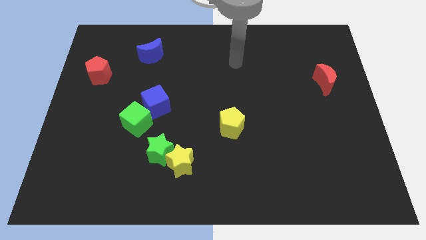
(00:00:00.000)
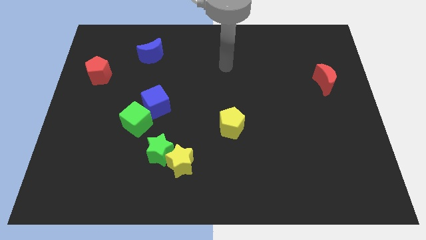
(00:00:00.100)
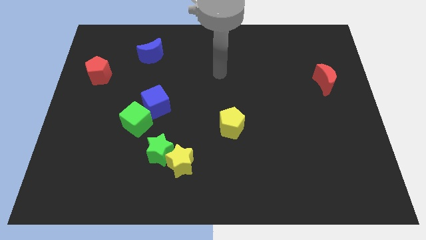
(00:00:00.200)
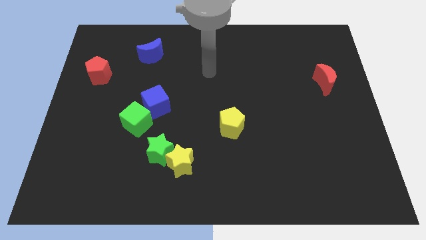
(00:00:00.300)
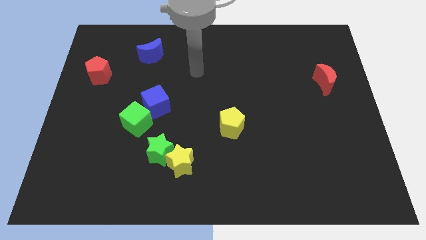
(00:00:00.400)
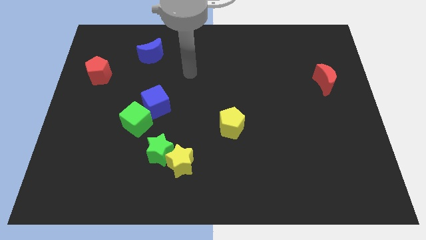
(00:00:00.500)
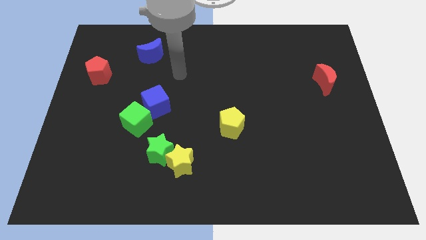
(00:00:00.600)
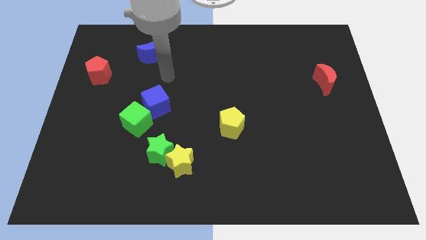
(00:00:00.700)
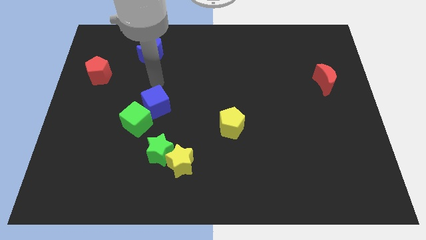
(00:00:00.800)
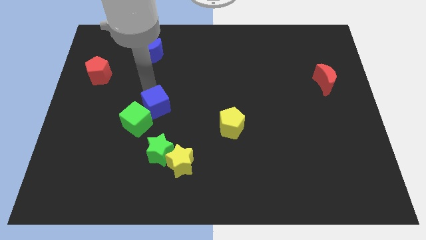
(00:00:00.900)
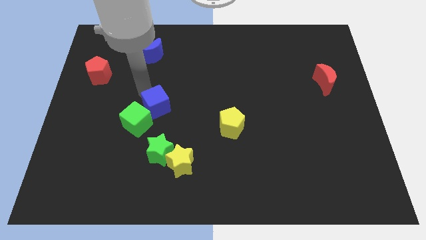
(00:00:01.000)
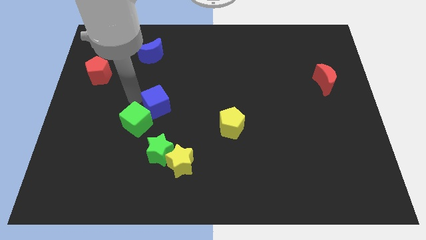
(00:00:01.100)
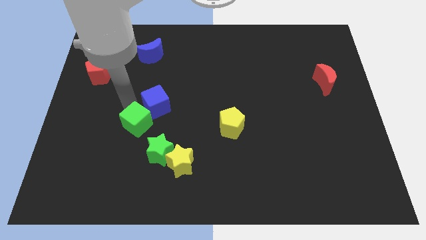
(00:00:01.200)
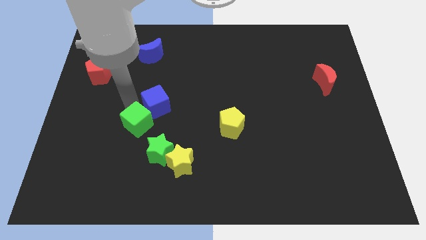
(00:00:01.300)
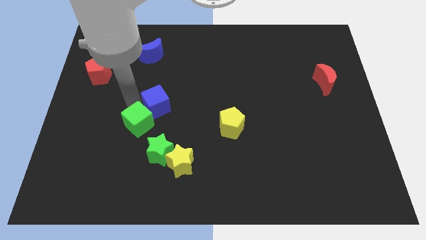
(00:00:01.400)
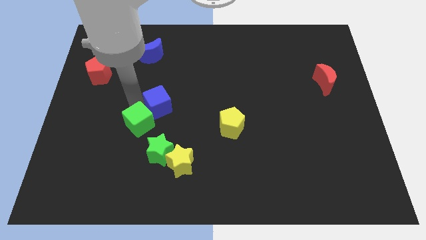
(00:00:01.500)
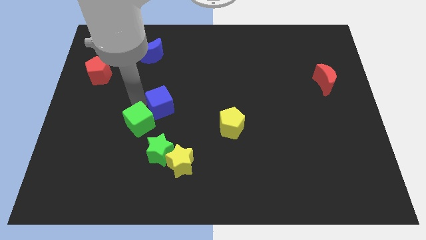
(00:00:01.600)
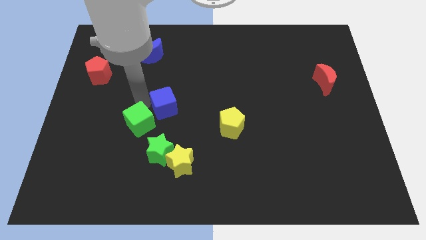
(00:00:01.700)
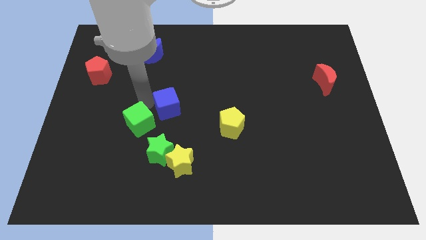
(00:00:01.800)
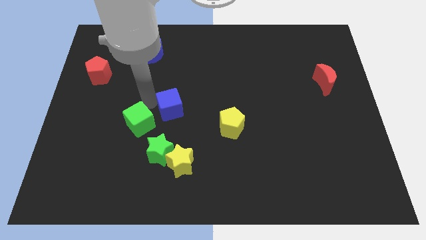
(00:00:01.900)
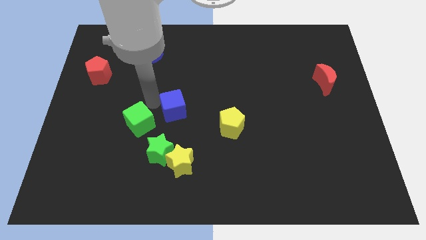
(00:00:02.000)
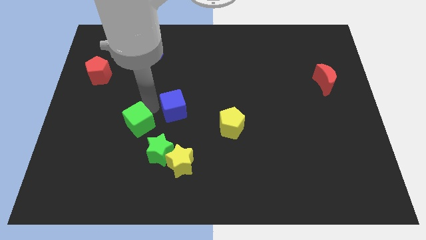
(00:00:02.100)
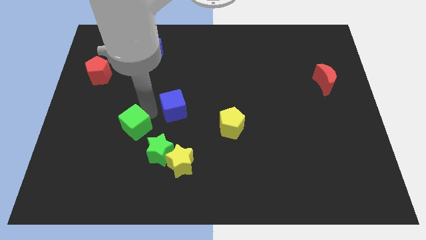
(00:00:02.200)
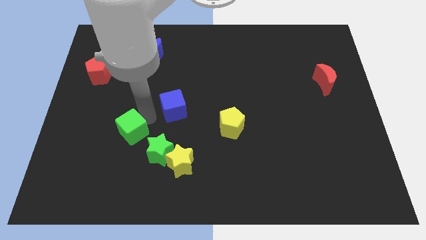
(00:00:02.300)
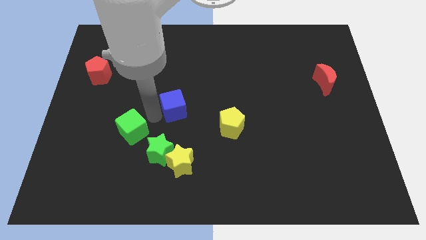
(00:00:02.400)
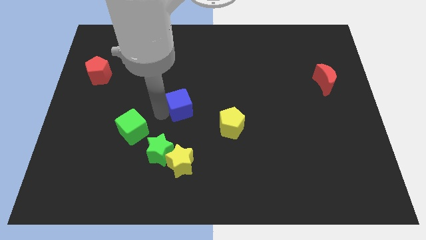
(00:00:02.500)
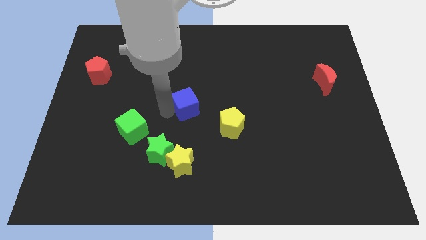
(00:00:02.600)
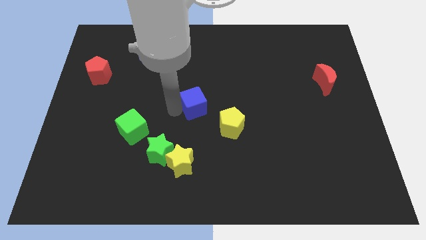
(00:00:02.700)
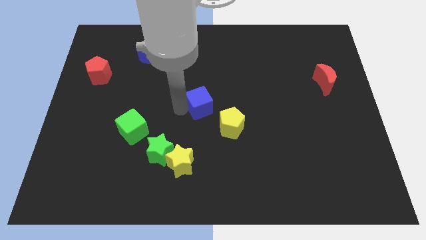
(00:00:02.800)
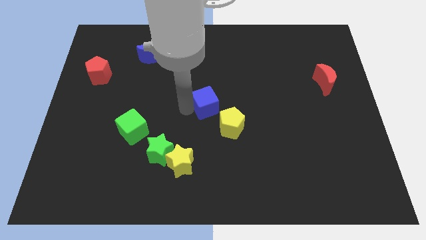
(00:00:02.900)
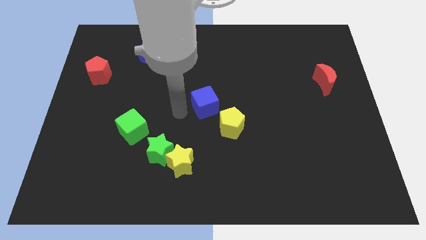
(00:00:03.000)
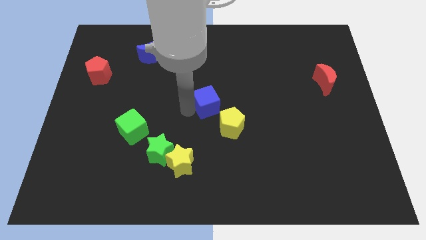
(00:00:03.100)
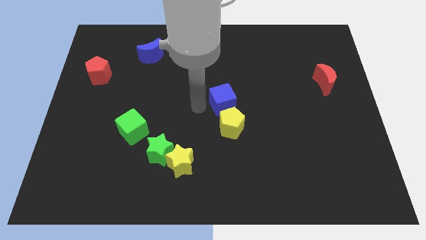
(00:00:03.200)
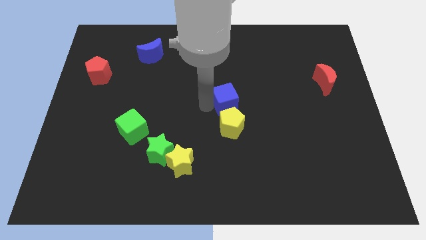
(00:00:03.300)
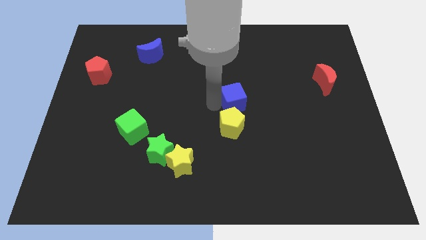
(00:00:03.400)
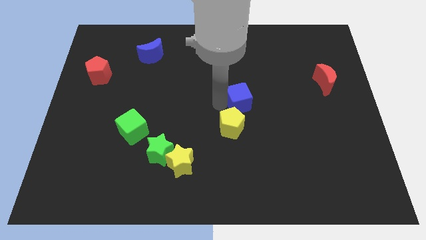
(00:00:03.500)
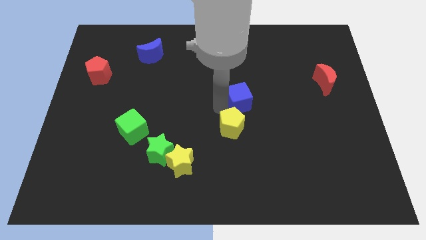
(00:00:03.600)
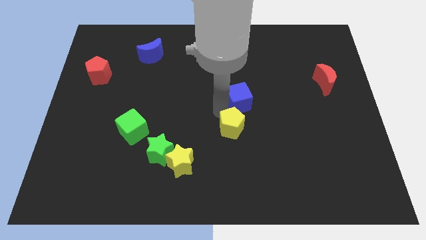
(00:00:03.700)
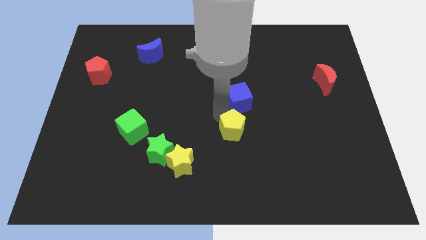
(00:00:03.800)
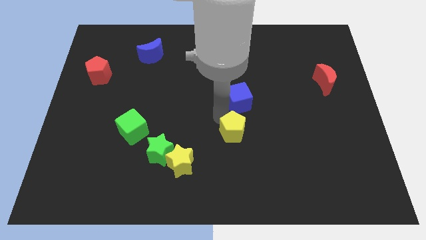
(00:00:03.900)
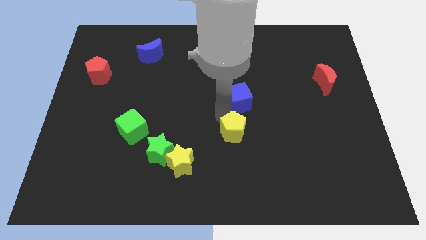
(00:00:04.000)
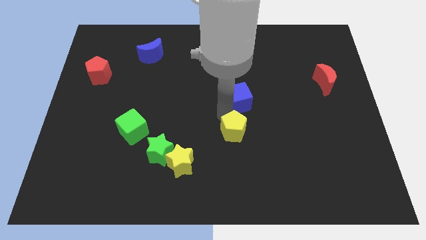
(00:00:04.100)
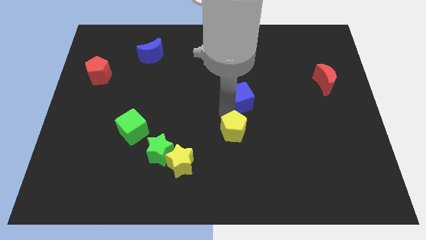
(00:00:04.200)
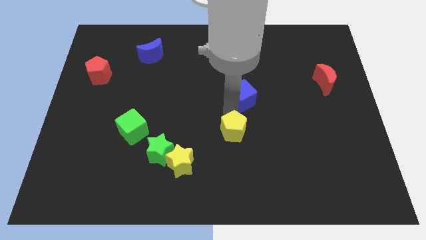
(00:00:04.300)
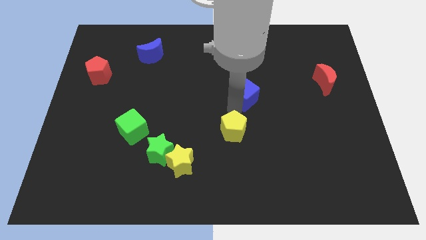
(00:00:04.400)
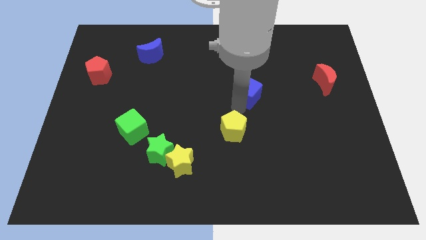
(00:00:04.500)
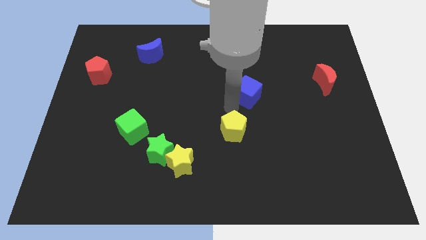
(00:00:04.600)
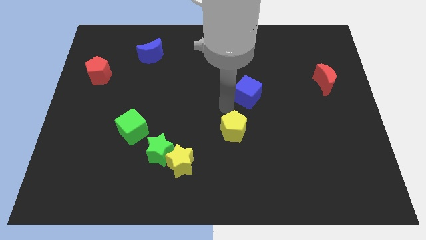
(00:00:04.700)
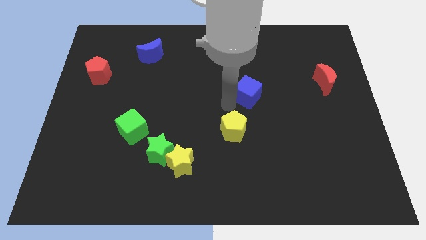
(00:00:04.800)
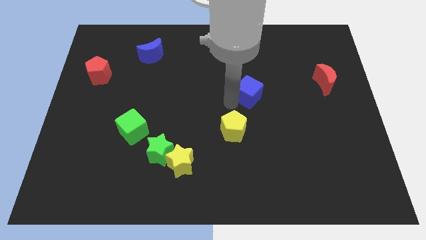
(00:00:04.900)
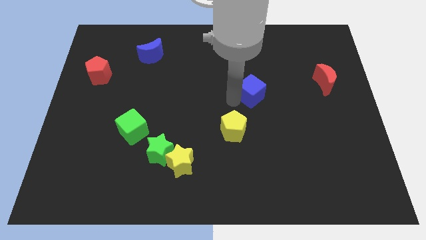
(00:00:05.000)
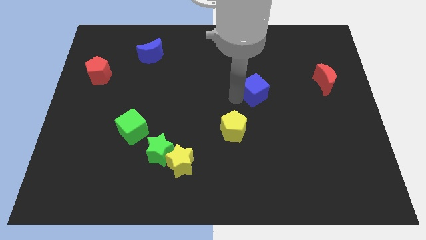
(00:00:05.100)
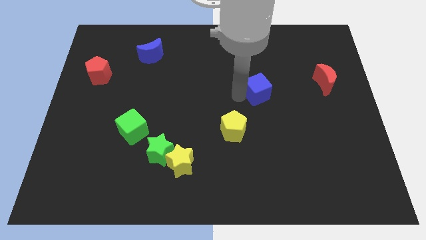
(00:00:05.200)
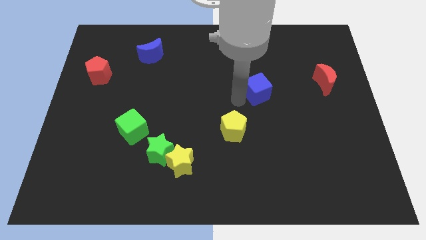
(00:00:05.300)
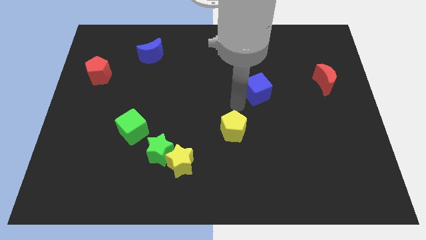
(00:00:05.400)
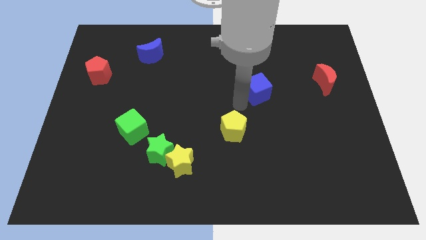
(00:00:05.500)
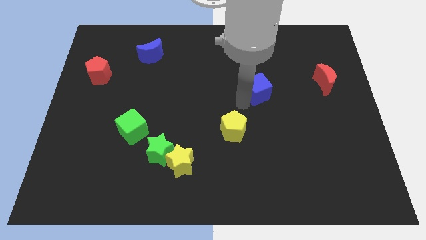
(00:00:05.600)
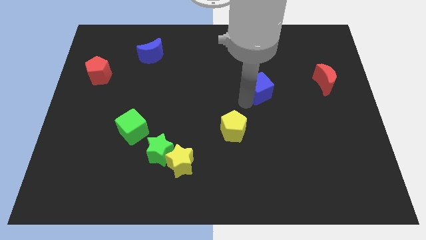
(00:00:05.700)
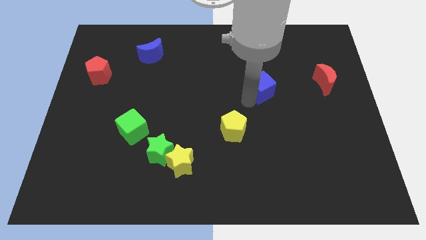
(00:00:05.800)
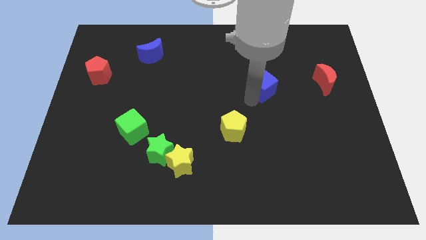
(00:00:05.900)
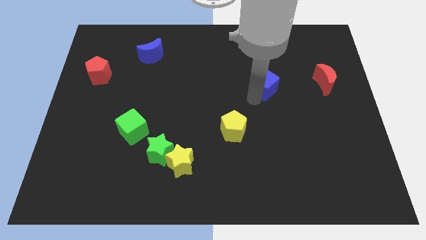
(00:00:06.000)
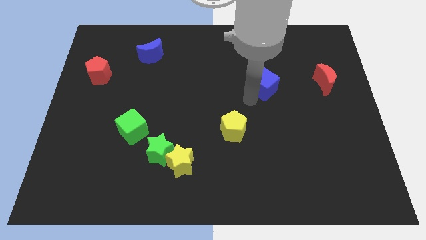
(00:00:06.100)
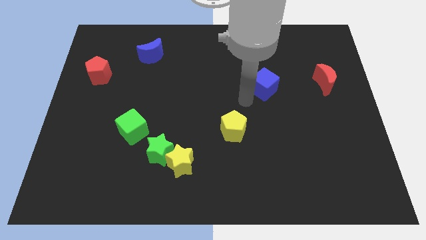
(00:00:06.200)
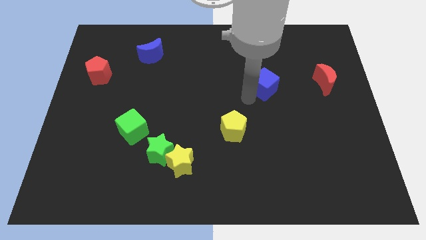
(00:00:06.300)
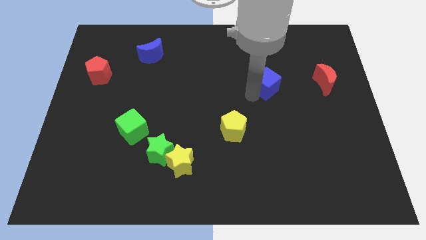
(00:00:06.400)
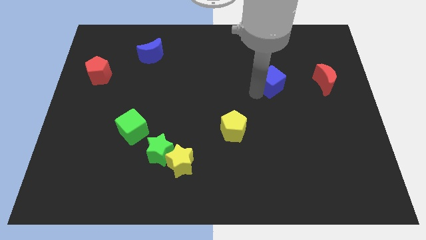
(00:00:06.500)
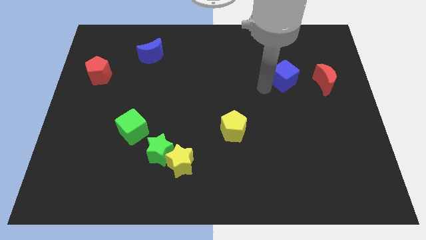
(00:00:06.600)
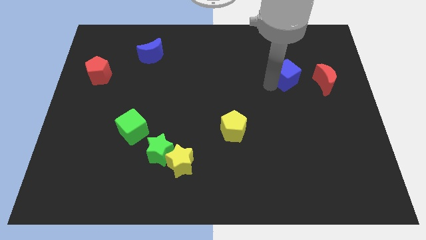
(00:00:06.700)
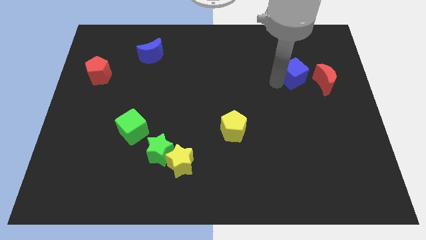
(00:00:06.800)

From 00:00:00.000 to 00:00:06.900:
push the blue cube to the top left of the red moon
